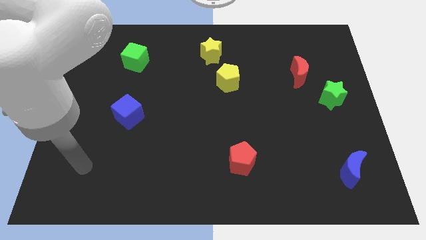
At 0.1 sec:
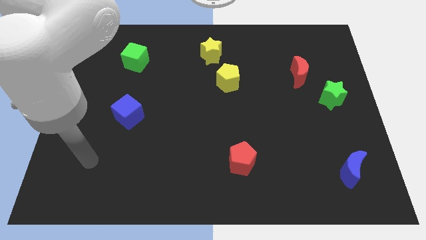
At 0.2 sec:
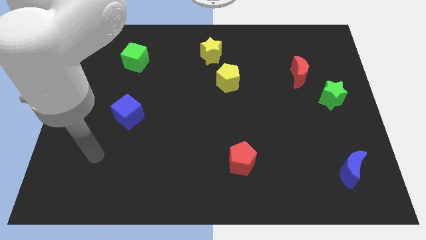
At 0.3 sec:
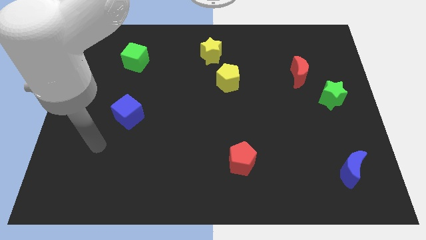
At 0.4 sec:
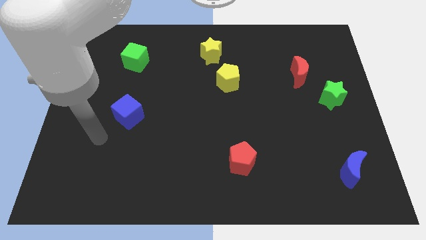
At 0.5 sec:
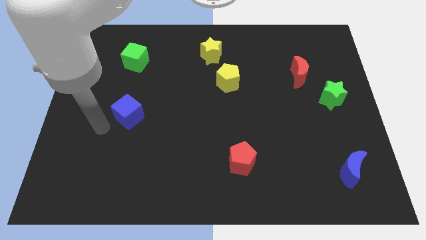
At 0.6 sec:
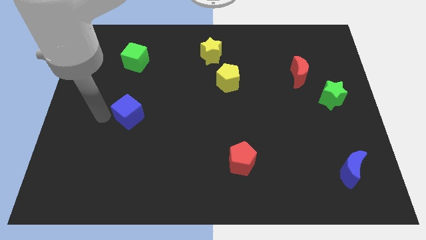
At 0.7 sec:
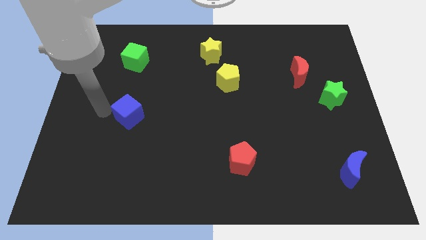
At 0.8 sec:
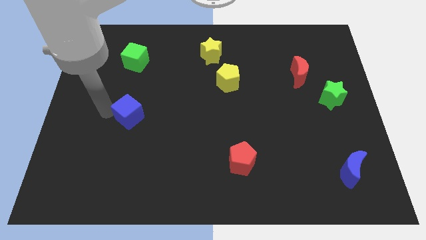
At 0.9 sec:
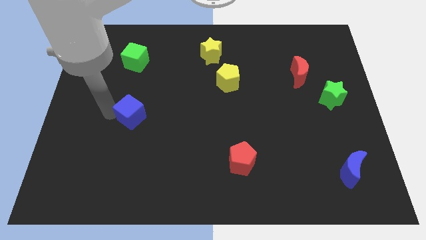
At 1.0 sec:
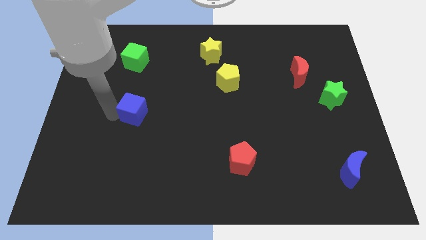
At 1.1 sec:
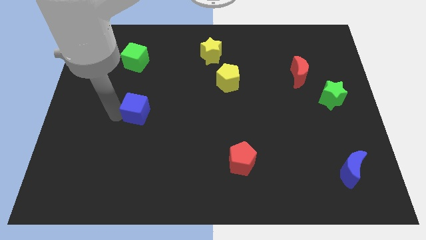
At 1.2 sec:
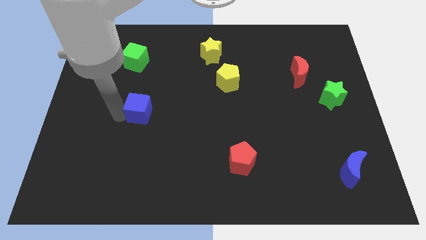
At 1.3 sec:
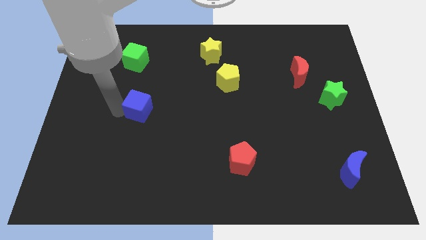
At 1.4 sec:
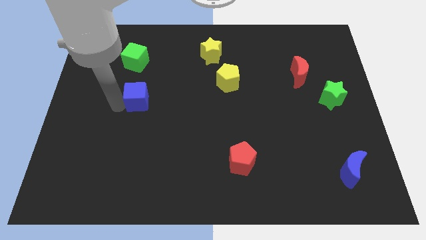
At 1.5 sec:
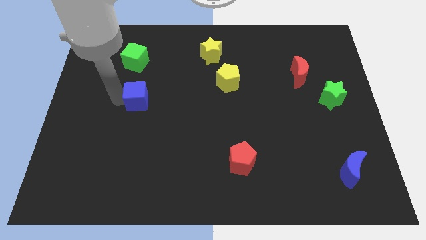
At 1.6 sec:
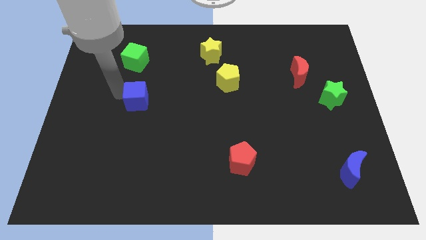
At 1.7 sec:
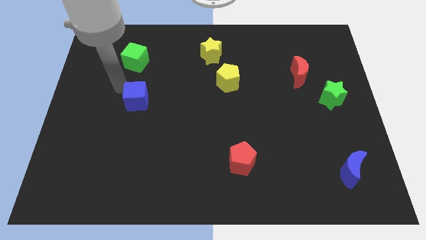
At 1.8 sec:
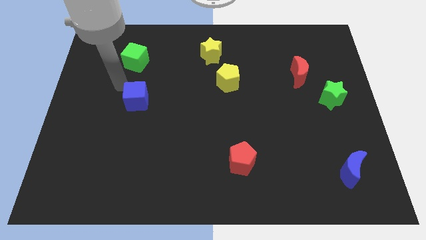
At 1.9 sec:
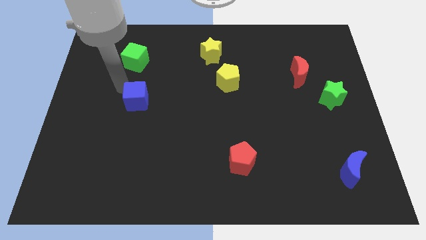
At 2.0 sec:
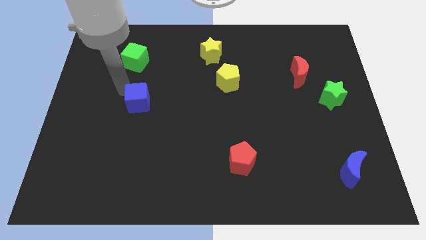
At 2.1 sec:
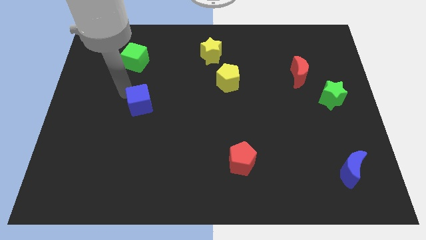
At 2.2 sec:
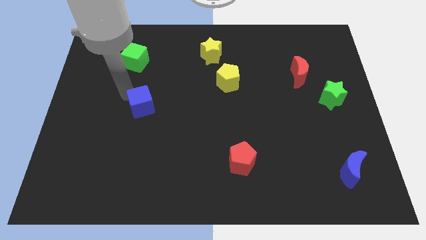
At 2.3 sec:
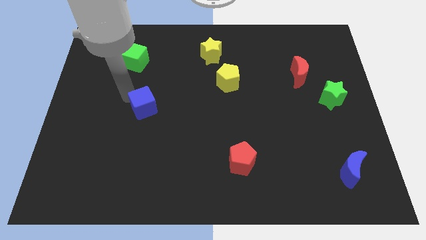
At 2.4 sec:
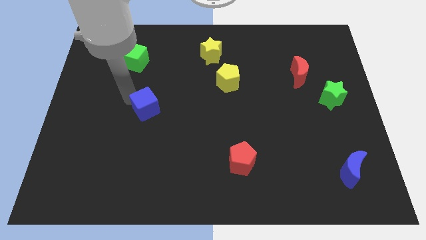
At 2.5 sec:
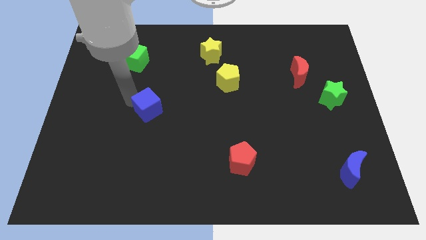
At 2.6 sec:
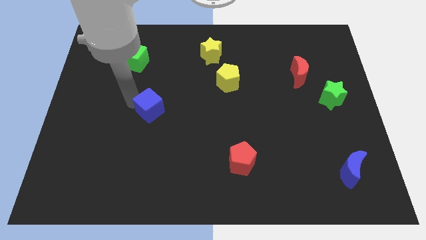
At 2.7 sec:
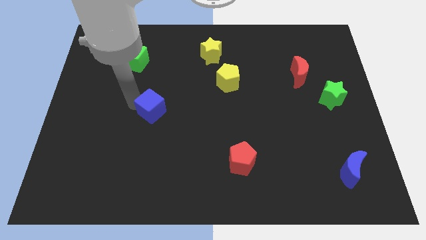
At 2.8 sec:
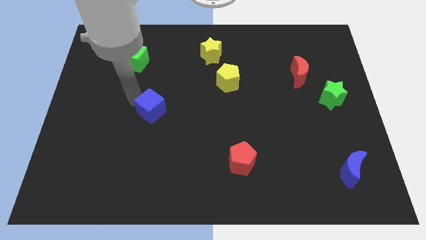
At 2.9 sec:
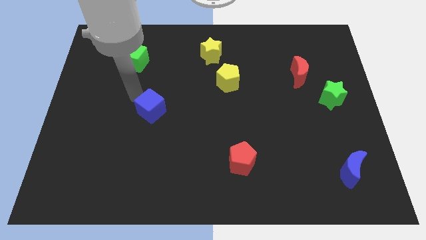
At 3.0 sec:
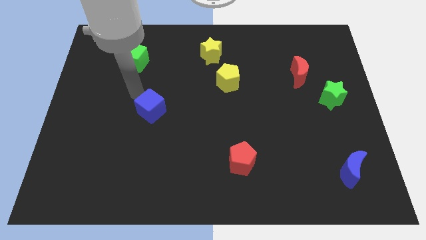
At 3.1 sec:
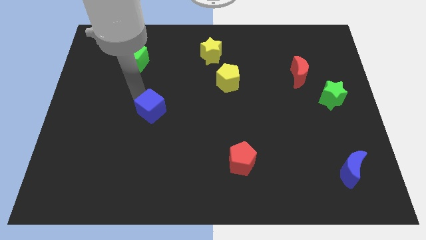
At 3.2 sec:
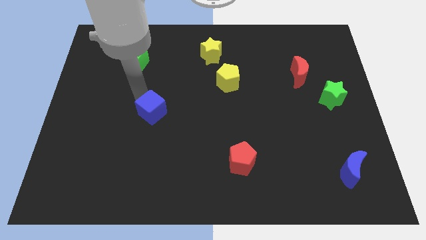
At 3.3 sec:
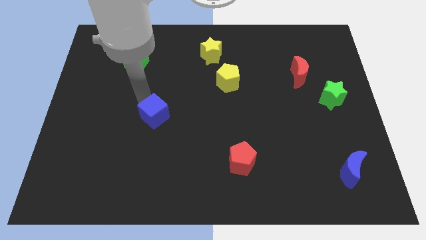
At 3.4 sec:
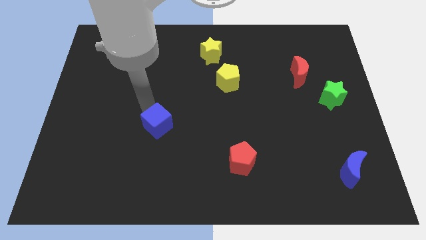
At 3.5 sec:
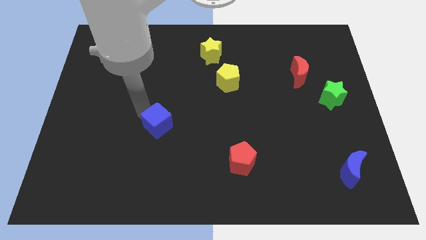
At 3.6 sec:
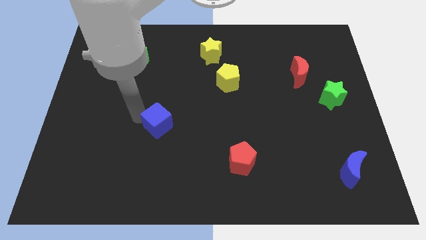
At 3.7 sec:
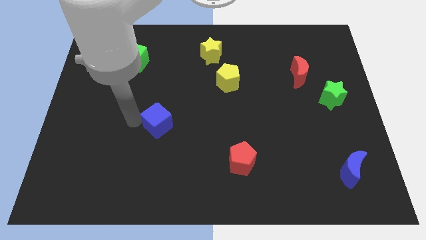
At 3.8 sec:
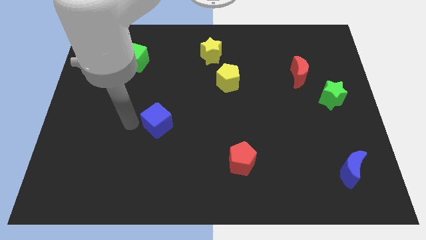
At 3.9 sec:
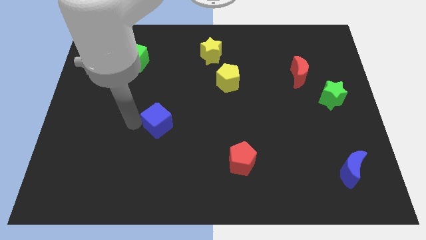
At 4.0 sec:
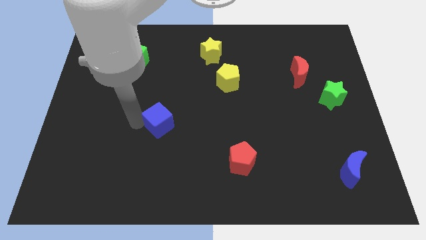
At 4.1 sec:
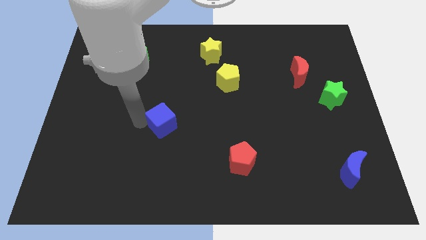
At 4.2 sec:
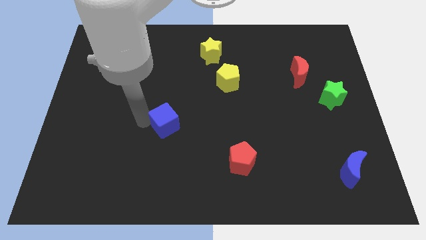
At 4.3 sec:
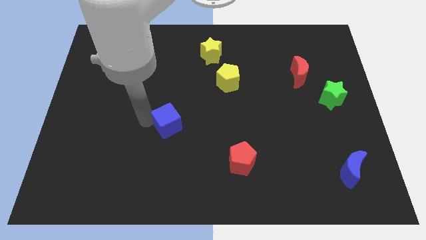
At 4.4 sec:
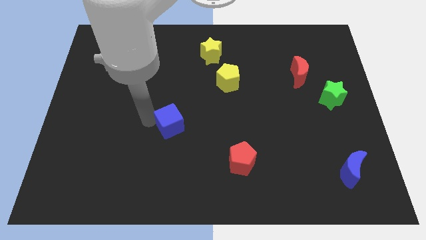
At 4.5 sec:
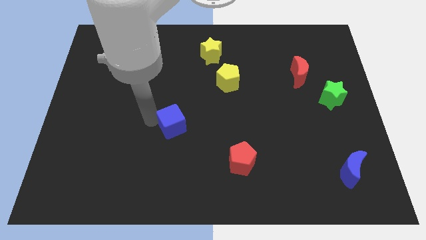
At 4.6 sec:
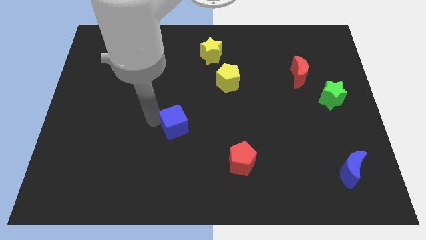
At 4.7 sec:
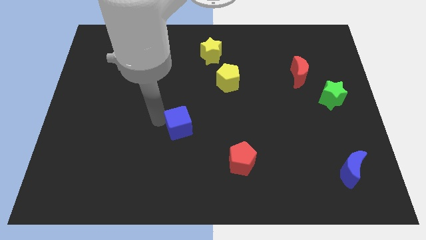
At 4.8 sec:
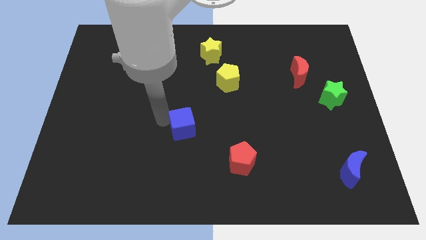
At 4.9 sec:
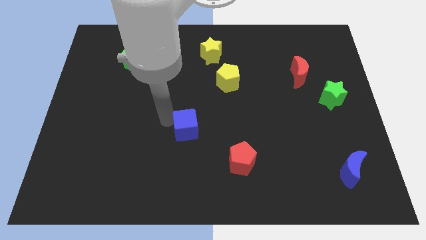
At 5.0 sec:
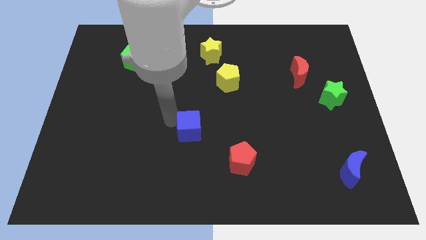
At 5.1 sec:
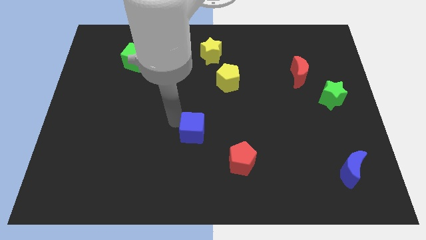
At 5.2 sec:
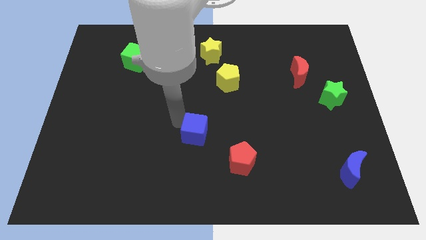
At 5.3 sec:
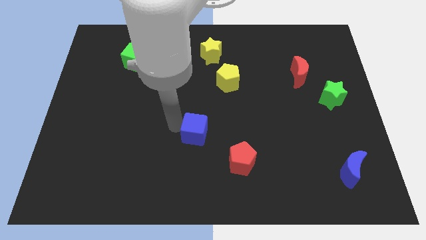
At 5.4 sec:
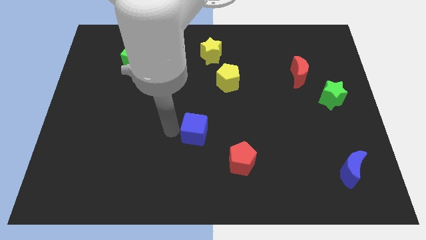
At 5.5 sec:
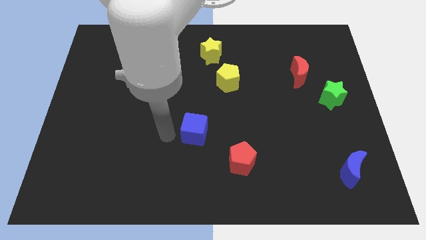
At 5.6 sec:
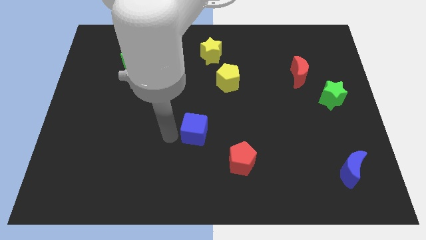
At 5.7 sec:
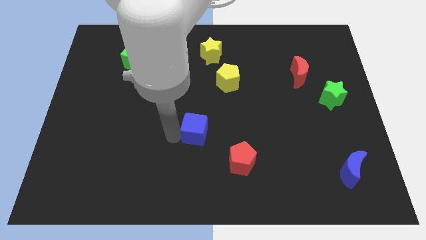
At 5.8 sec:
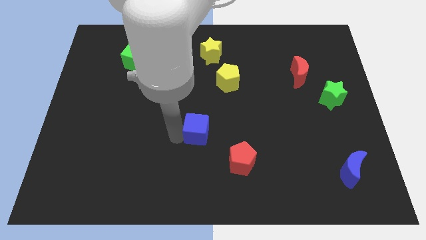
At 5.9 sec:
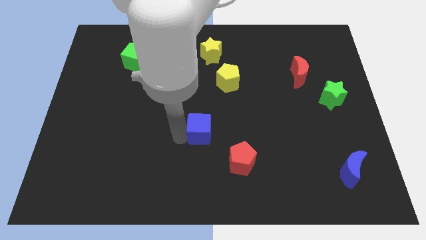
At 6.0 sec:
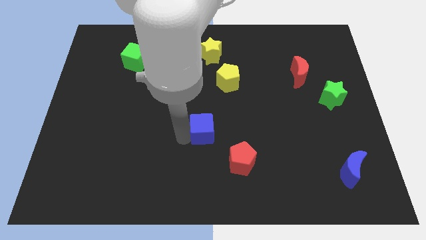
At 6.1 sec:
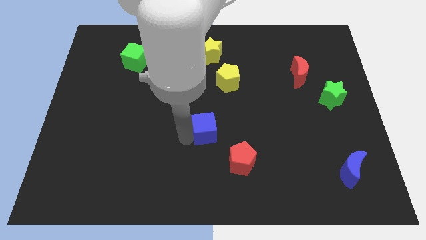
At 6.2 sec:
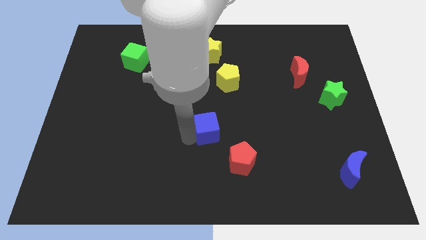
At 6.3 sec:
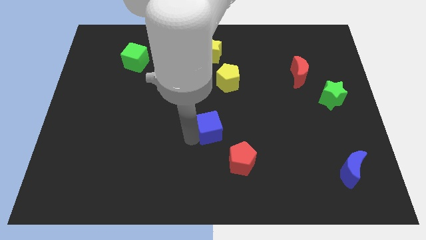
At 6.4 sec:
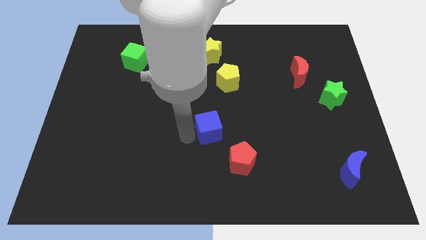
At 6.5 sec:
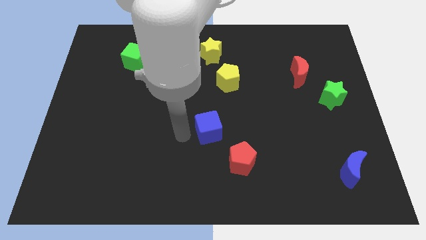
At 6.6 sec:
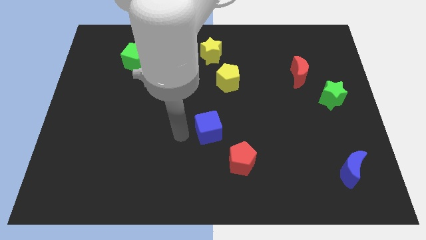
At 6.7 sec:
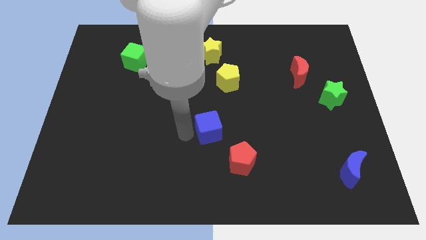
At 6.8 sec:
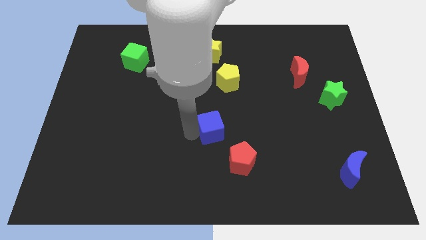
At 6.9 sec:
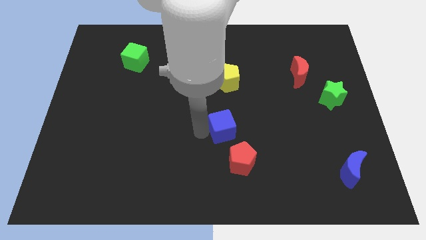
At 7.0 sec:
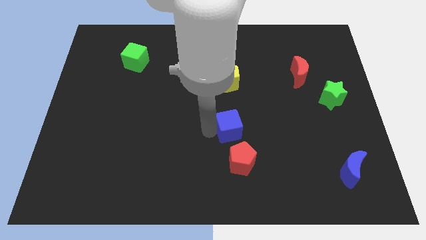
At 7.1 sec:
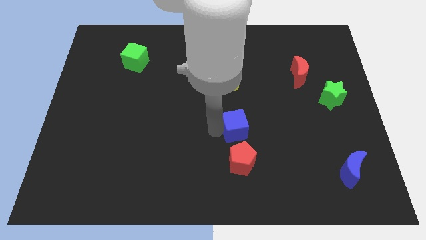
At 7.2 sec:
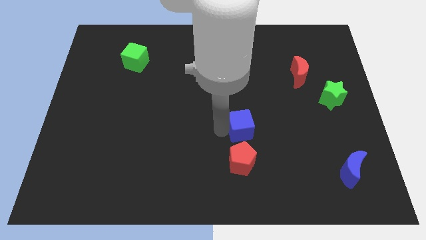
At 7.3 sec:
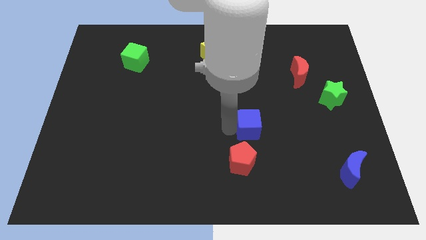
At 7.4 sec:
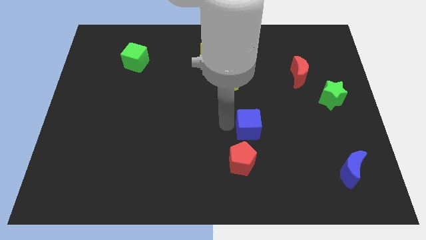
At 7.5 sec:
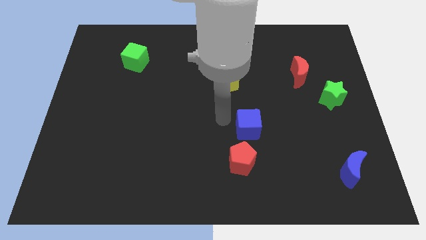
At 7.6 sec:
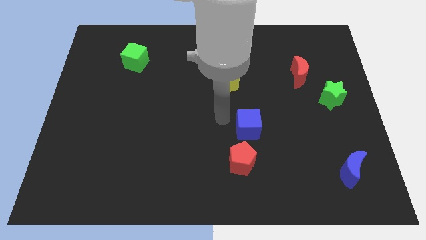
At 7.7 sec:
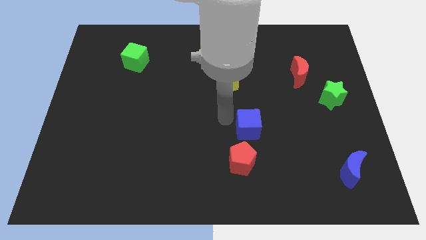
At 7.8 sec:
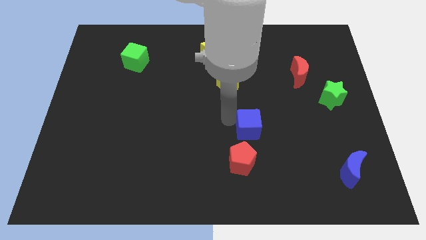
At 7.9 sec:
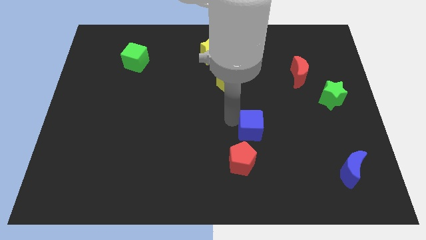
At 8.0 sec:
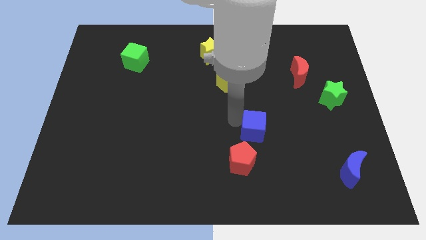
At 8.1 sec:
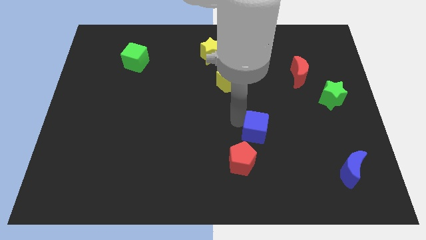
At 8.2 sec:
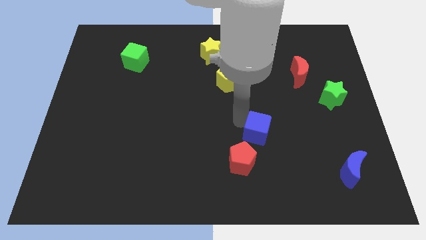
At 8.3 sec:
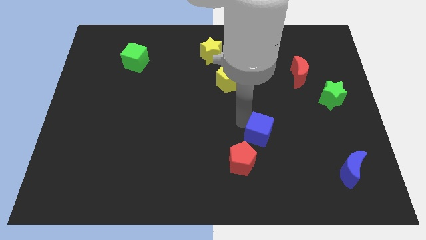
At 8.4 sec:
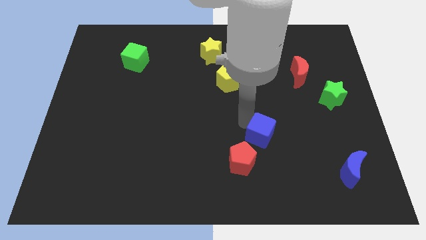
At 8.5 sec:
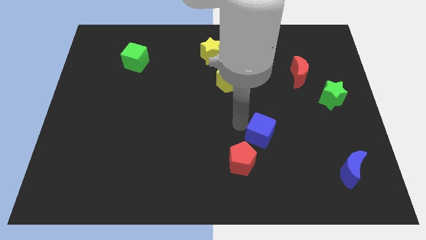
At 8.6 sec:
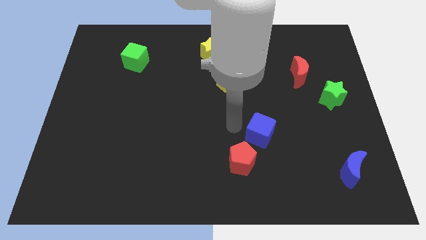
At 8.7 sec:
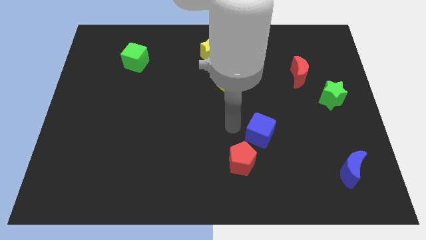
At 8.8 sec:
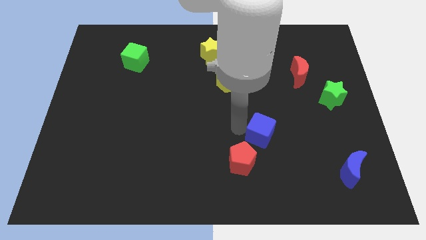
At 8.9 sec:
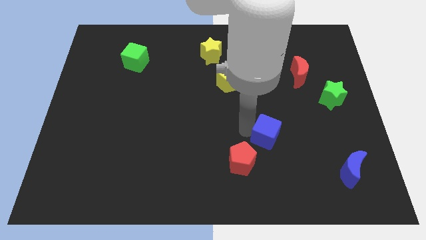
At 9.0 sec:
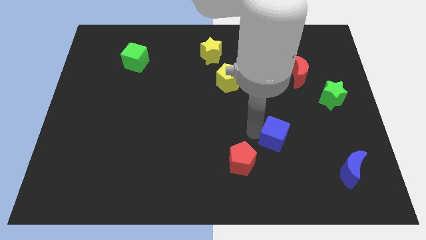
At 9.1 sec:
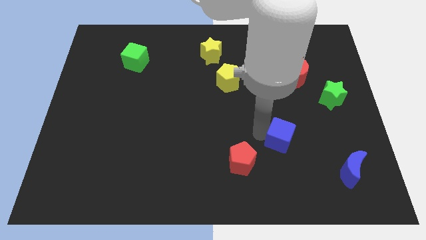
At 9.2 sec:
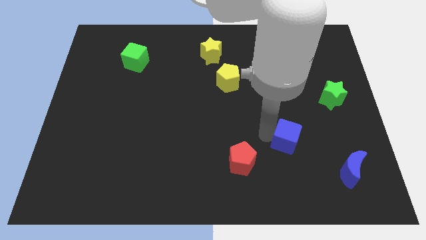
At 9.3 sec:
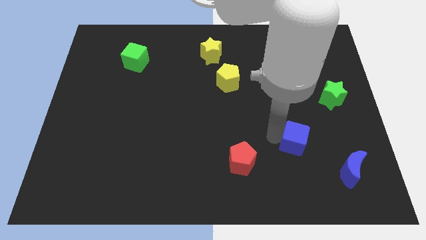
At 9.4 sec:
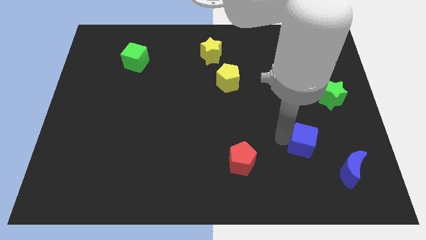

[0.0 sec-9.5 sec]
move the blue cube to the top left side of the blue moon
